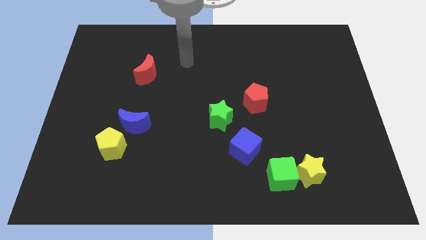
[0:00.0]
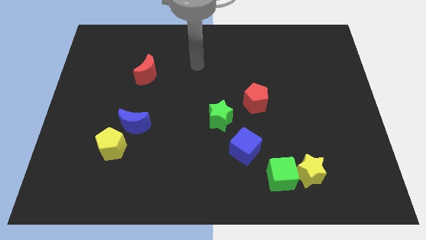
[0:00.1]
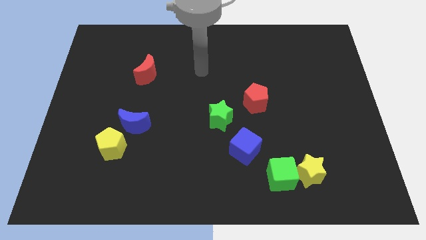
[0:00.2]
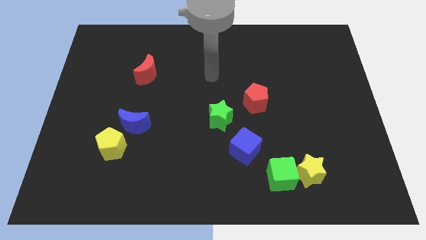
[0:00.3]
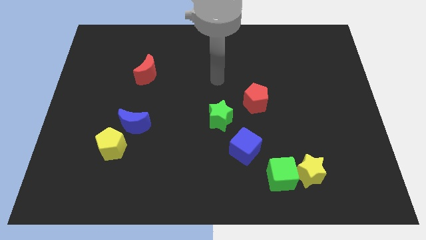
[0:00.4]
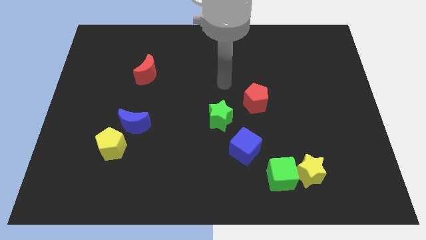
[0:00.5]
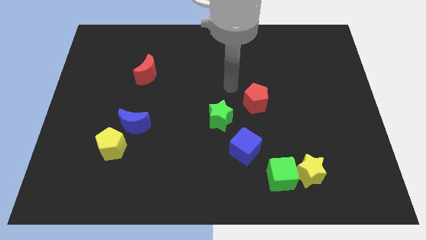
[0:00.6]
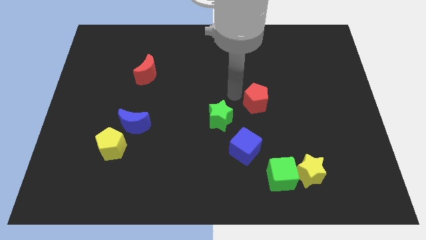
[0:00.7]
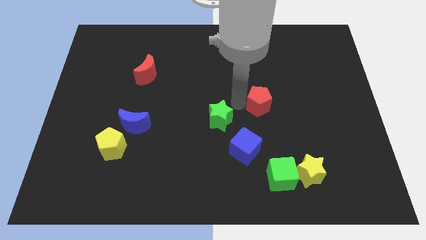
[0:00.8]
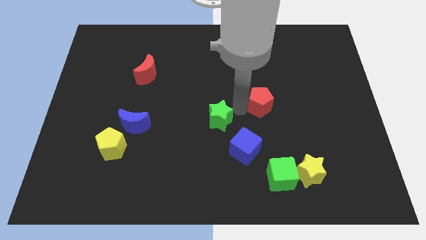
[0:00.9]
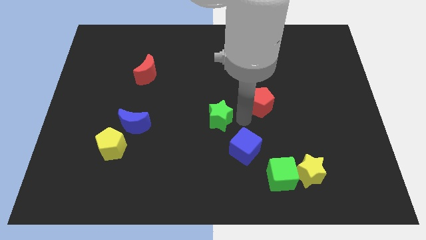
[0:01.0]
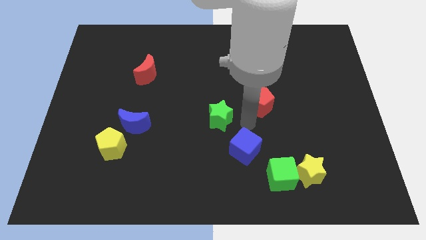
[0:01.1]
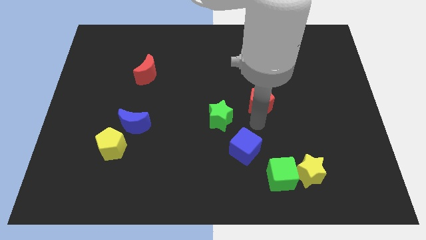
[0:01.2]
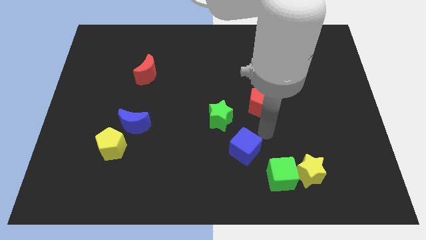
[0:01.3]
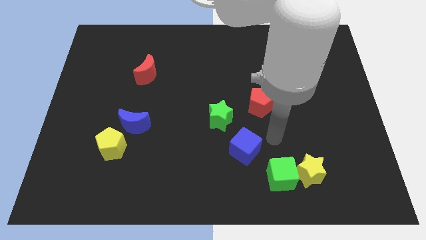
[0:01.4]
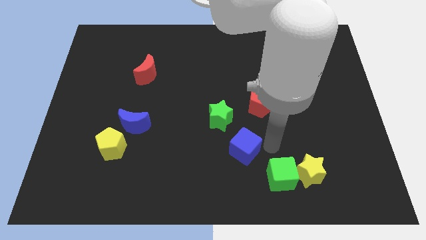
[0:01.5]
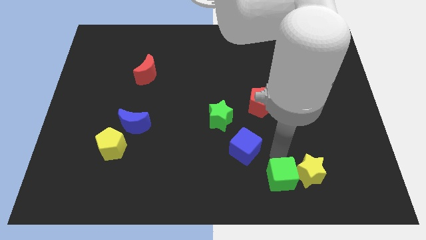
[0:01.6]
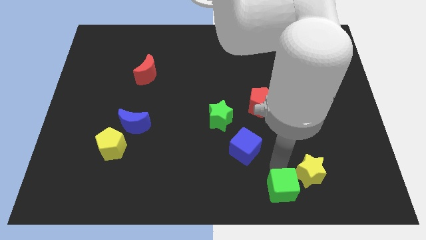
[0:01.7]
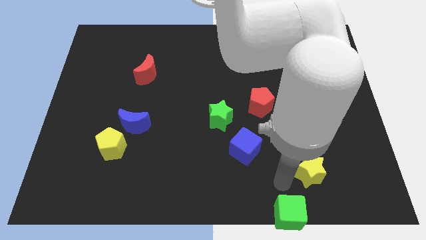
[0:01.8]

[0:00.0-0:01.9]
pull the yellow star apart from the green cube

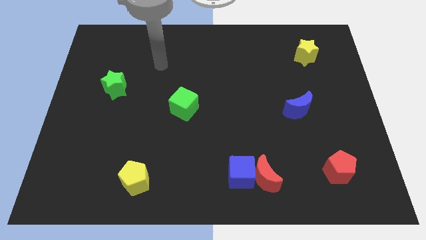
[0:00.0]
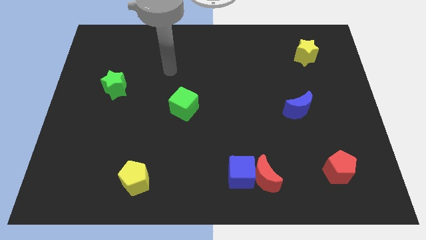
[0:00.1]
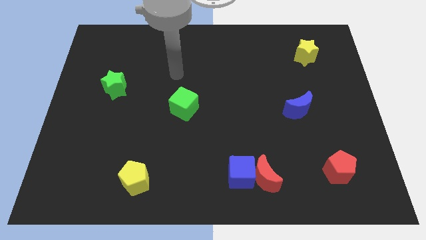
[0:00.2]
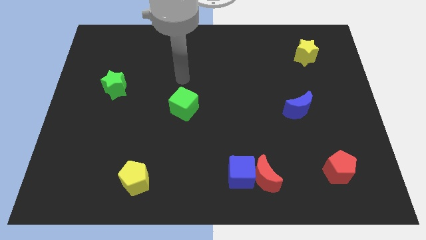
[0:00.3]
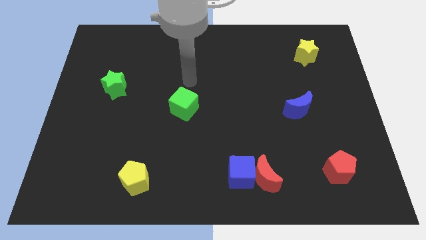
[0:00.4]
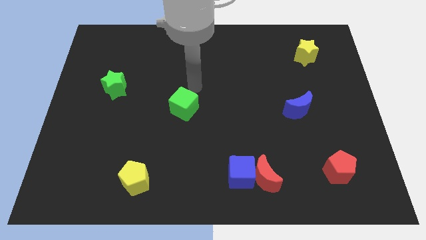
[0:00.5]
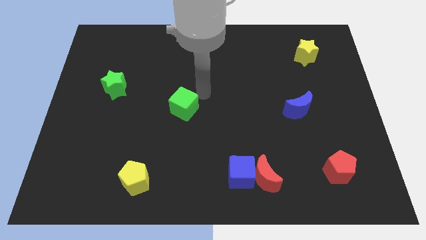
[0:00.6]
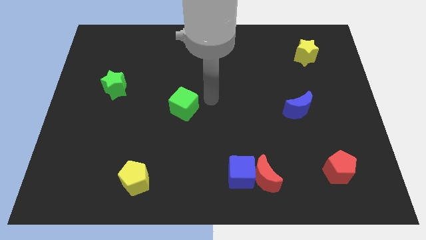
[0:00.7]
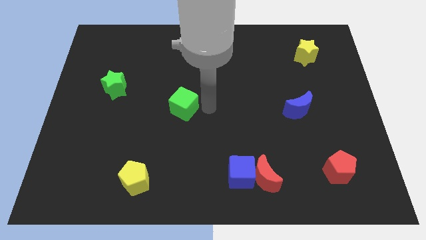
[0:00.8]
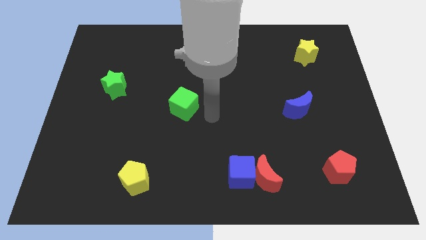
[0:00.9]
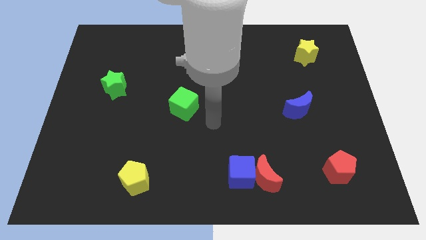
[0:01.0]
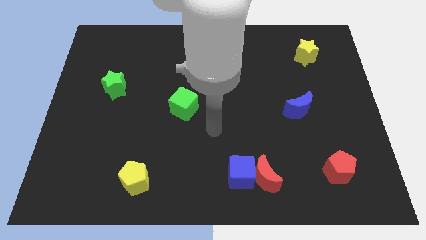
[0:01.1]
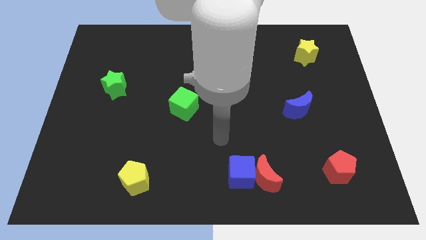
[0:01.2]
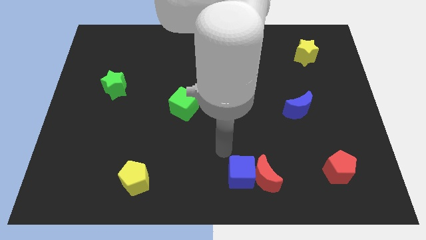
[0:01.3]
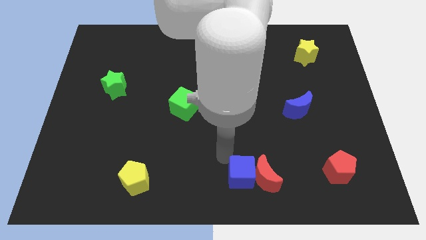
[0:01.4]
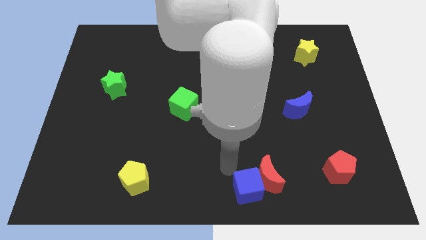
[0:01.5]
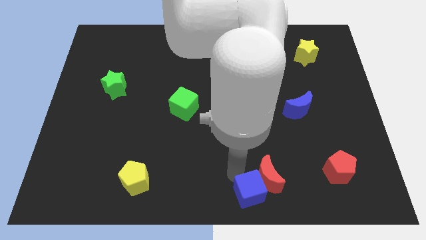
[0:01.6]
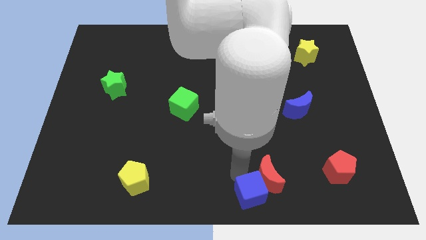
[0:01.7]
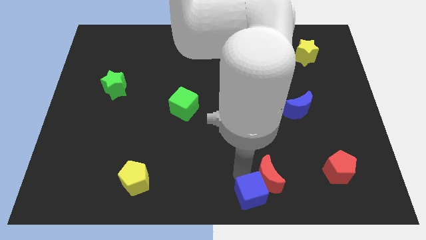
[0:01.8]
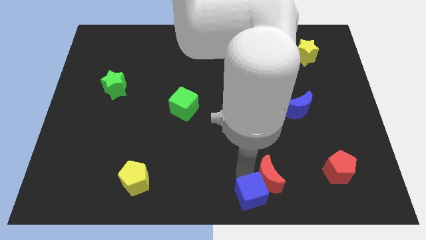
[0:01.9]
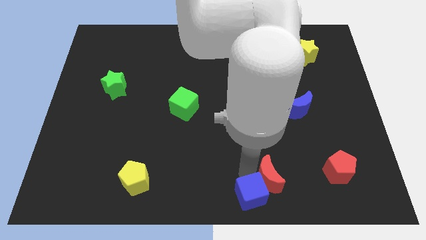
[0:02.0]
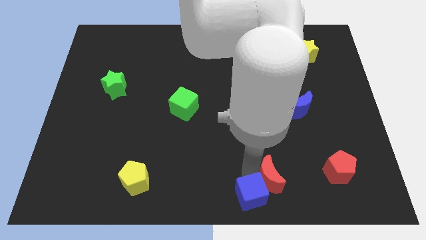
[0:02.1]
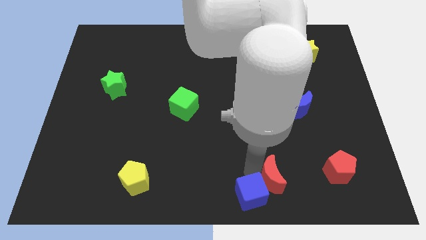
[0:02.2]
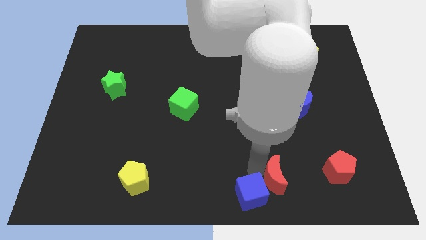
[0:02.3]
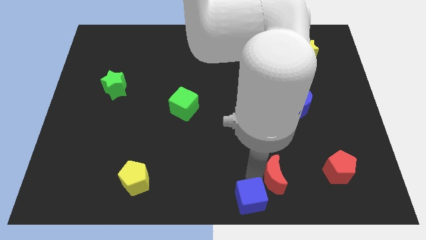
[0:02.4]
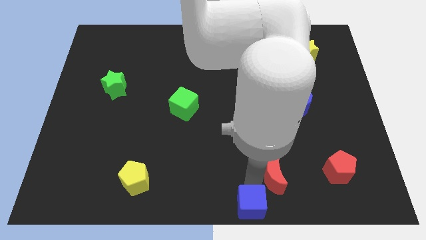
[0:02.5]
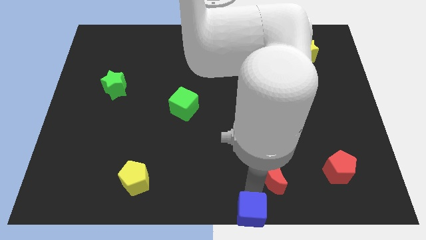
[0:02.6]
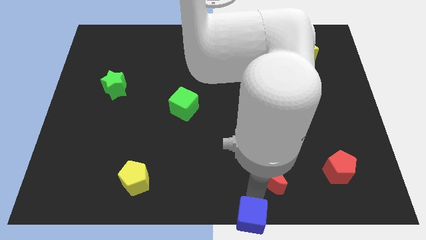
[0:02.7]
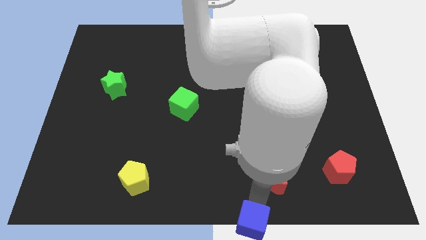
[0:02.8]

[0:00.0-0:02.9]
move the red moon away from the blue cube

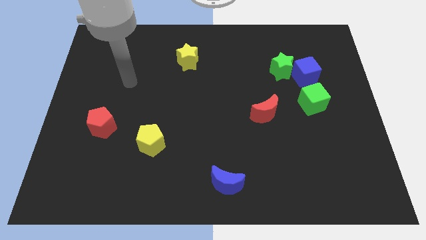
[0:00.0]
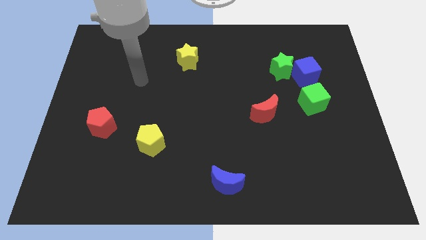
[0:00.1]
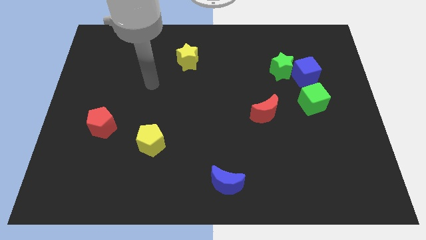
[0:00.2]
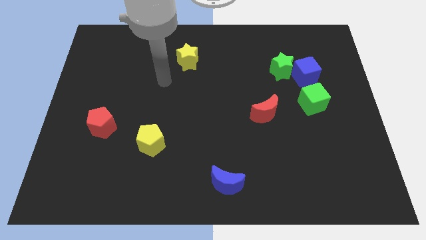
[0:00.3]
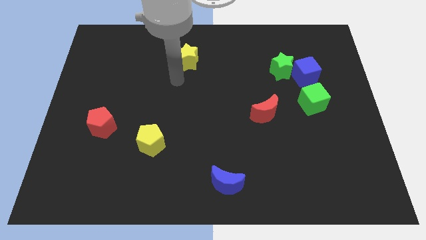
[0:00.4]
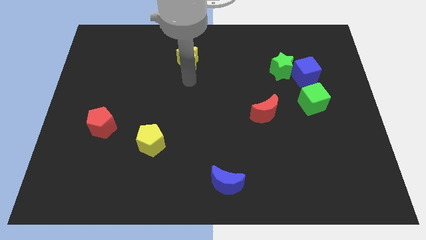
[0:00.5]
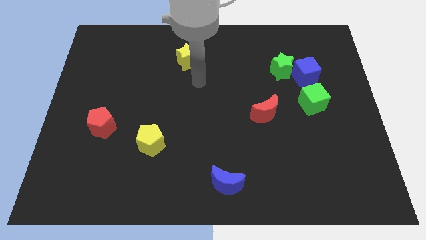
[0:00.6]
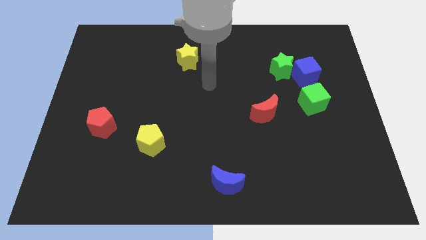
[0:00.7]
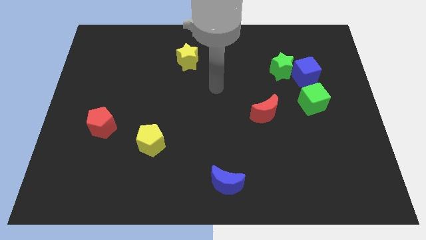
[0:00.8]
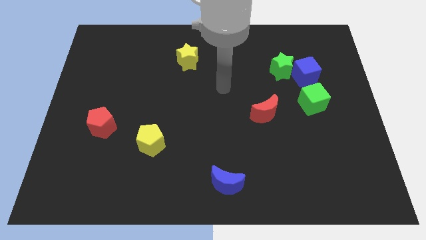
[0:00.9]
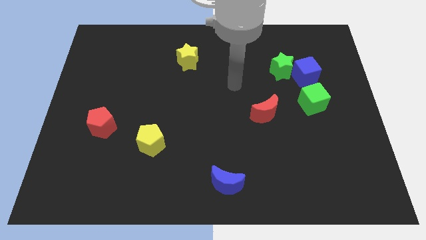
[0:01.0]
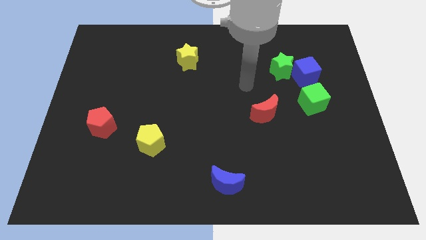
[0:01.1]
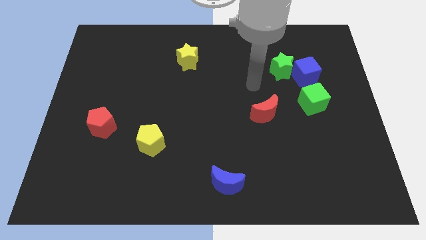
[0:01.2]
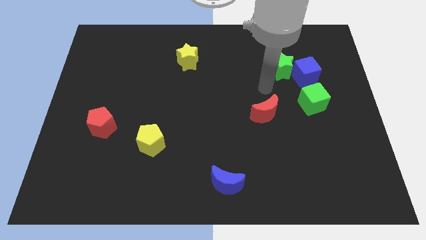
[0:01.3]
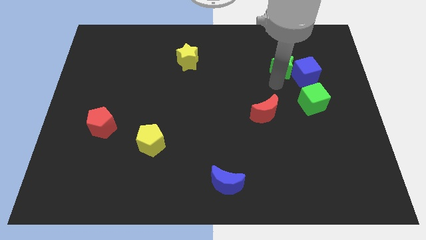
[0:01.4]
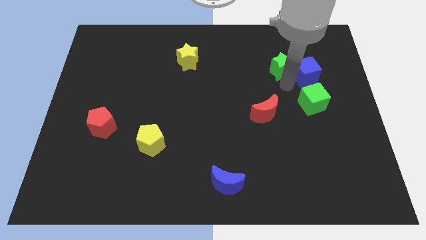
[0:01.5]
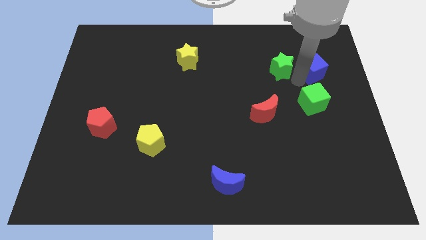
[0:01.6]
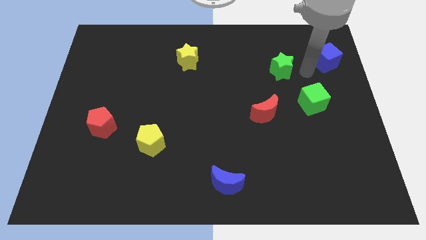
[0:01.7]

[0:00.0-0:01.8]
pull the green star apart from the blue cube

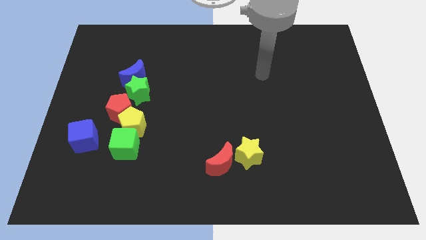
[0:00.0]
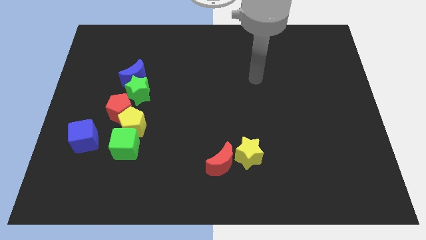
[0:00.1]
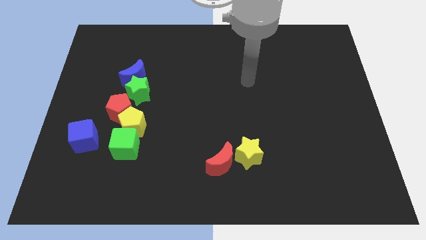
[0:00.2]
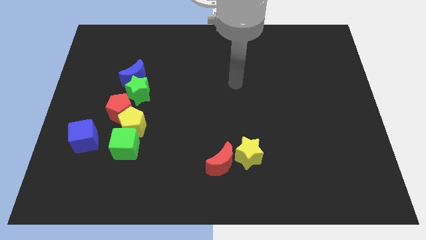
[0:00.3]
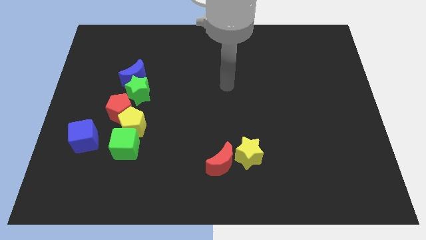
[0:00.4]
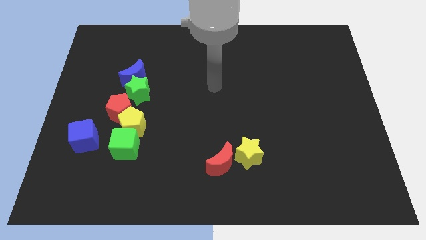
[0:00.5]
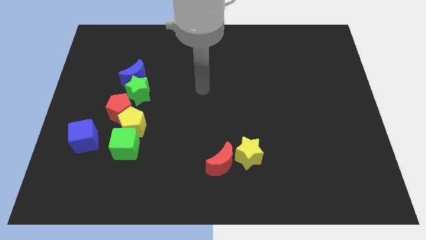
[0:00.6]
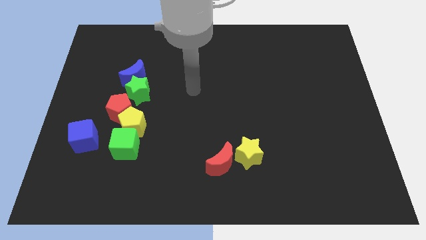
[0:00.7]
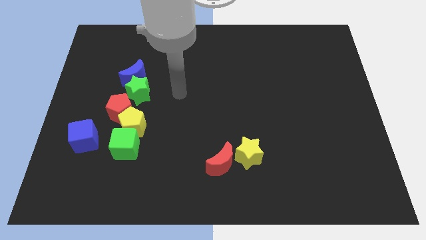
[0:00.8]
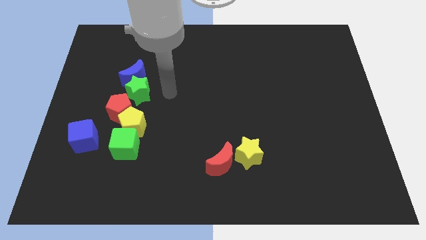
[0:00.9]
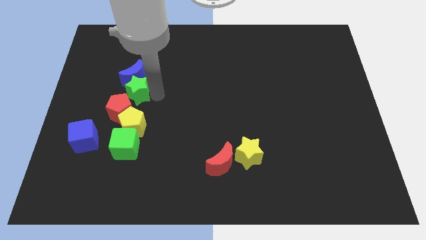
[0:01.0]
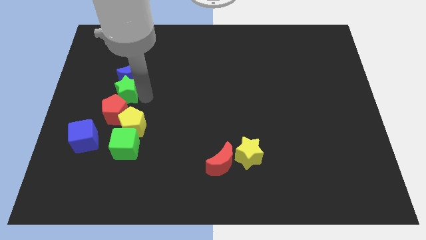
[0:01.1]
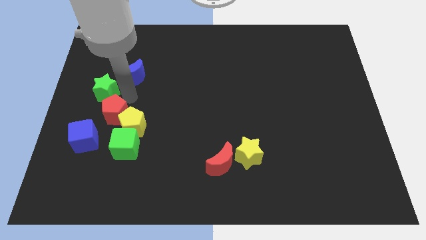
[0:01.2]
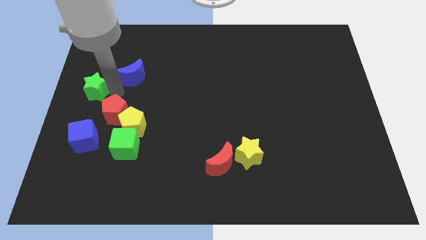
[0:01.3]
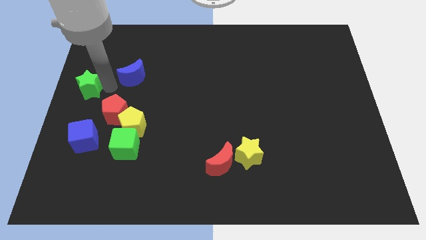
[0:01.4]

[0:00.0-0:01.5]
separate the blue moon from the green star

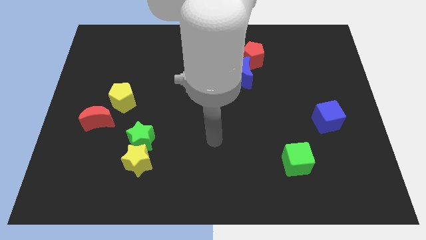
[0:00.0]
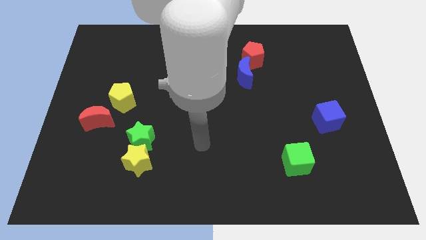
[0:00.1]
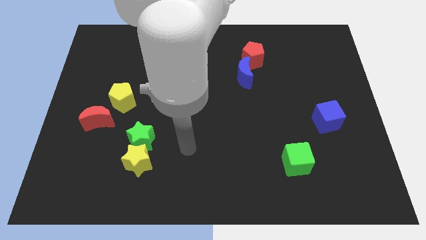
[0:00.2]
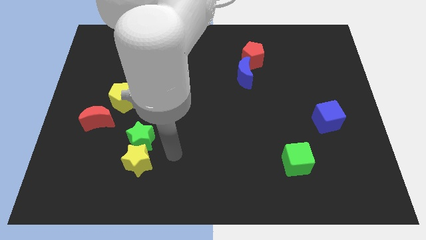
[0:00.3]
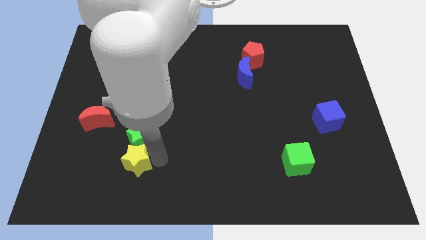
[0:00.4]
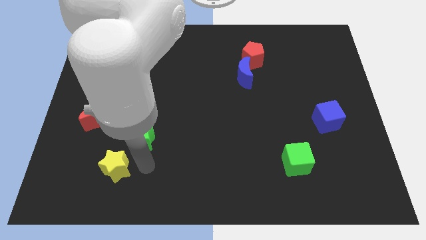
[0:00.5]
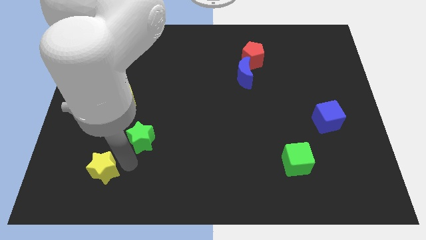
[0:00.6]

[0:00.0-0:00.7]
separate the green star from the yellow star

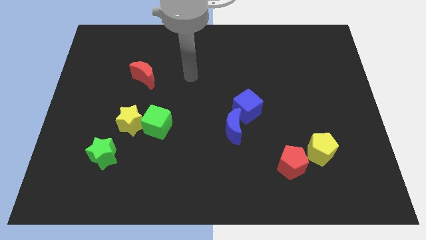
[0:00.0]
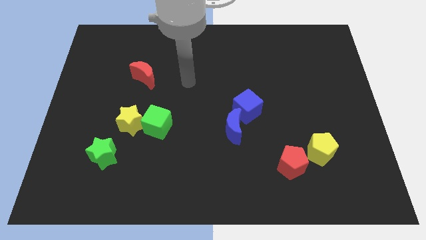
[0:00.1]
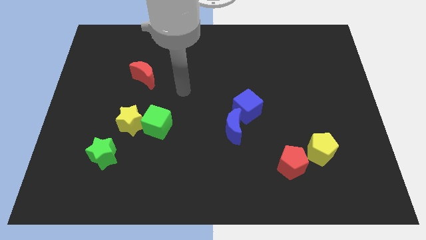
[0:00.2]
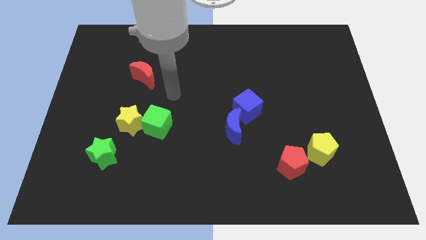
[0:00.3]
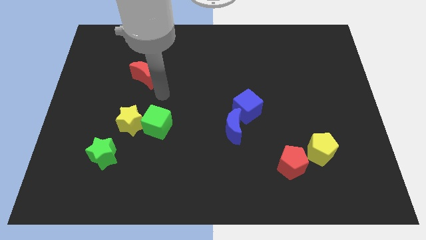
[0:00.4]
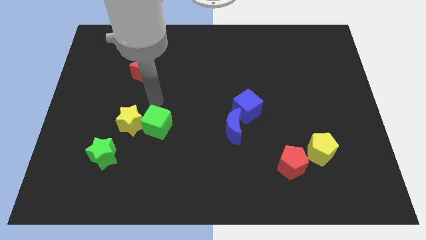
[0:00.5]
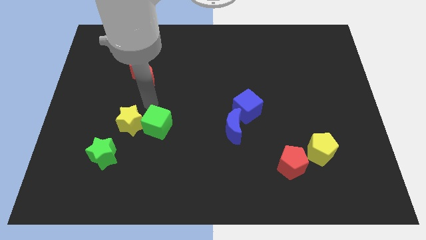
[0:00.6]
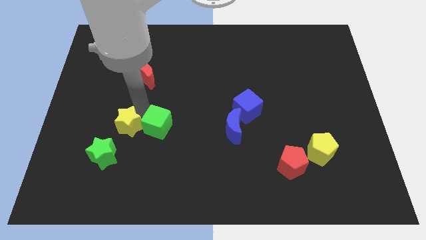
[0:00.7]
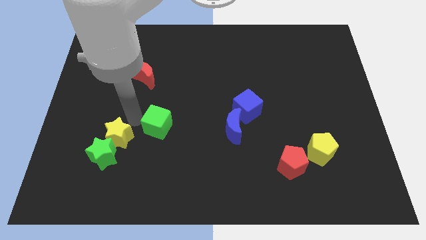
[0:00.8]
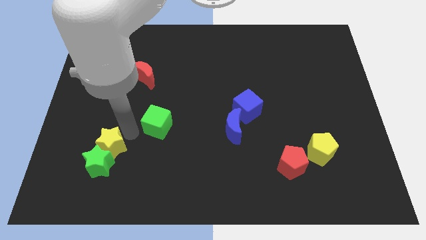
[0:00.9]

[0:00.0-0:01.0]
move the green cube away from the yellow star
